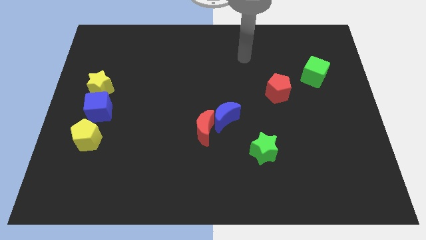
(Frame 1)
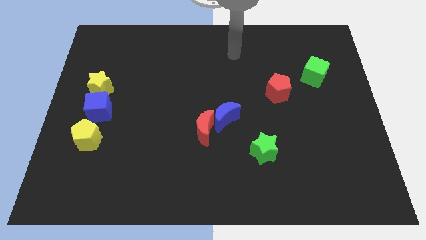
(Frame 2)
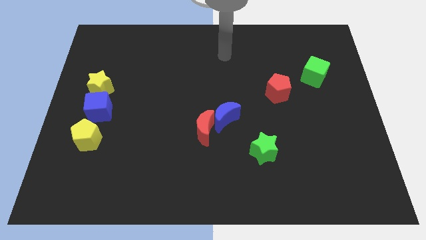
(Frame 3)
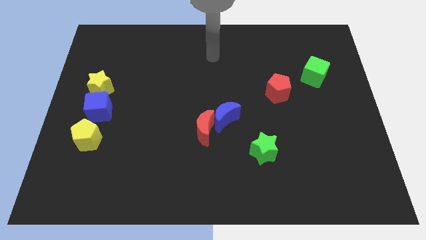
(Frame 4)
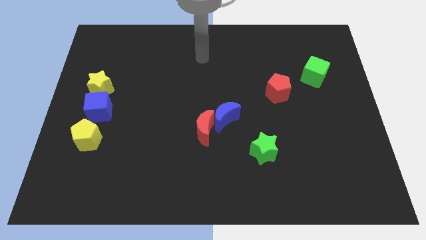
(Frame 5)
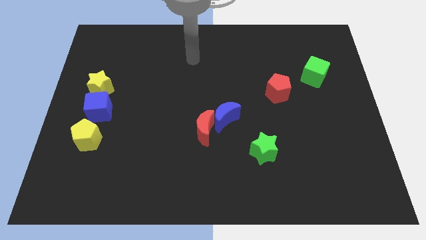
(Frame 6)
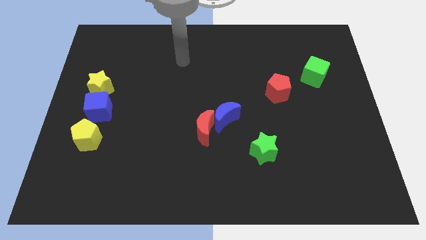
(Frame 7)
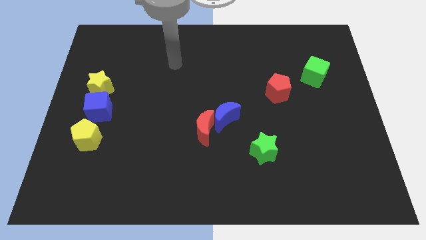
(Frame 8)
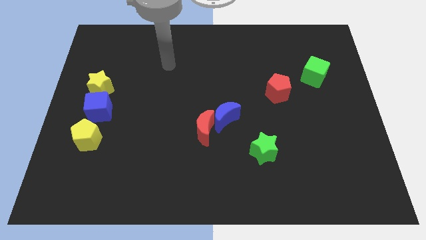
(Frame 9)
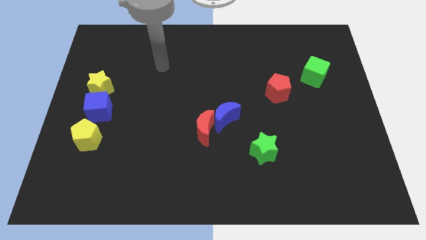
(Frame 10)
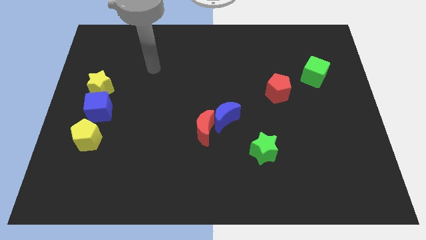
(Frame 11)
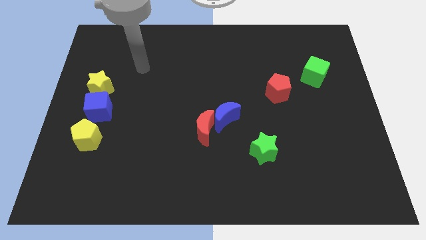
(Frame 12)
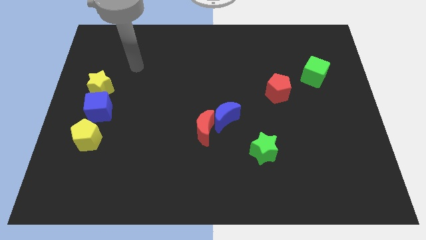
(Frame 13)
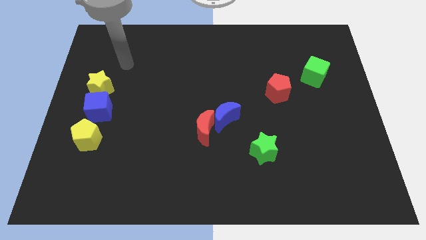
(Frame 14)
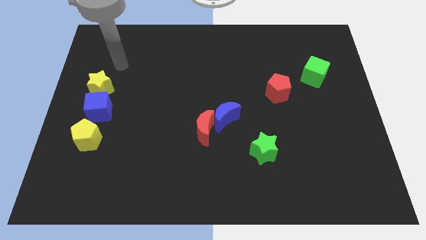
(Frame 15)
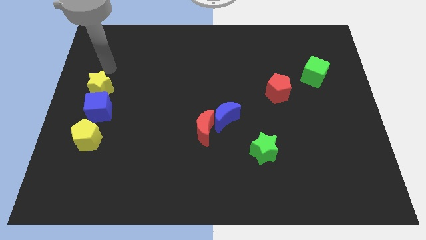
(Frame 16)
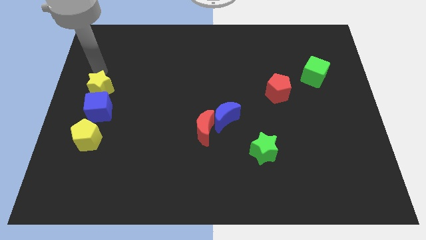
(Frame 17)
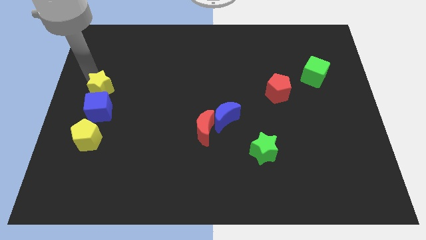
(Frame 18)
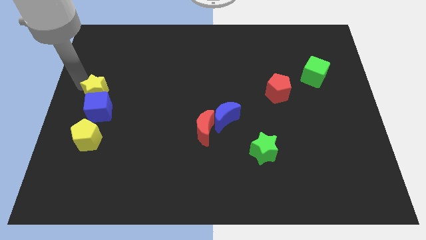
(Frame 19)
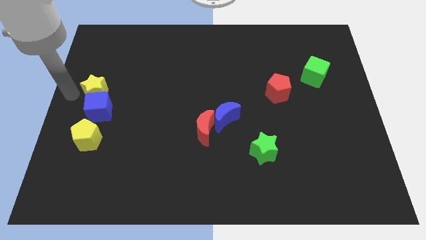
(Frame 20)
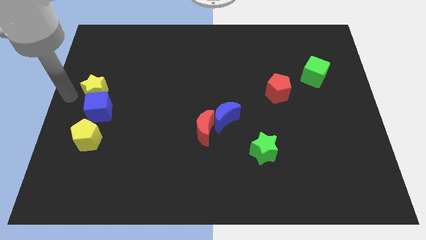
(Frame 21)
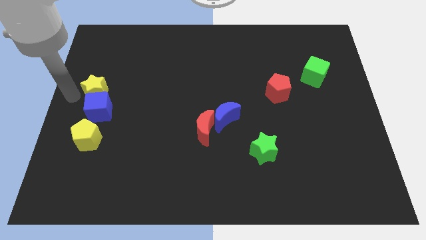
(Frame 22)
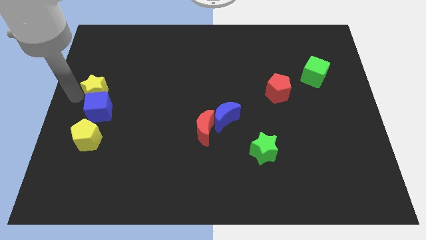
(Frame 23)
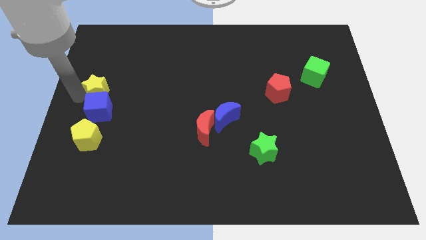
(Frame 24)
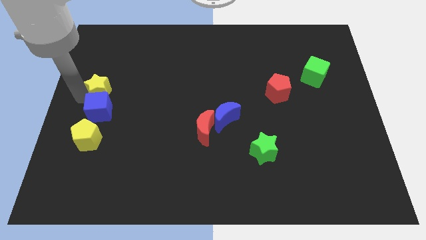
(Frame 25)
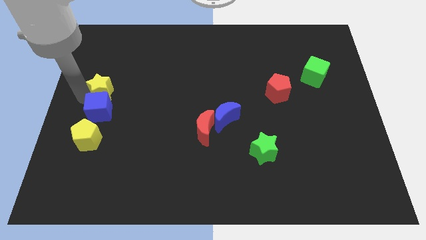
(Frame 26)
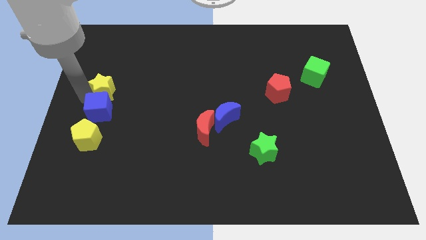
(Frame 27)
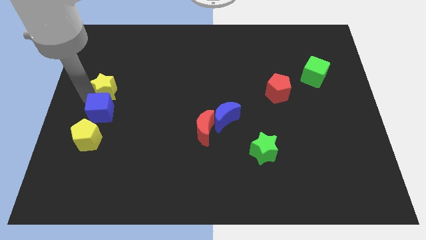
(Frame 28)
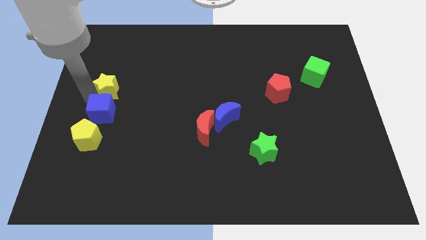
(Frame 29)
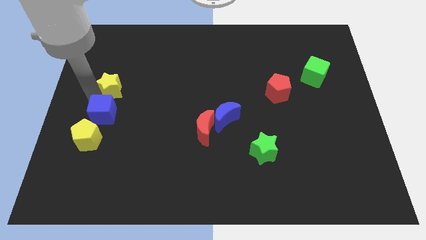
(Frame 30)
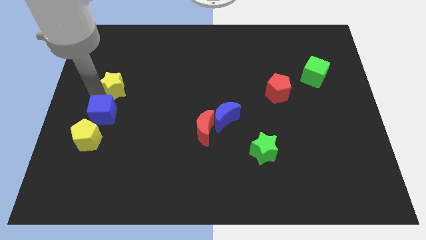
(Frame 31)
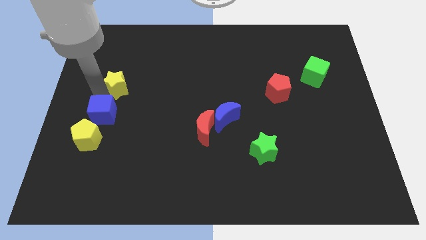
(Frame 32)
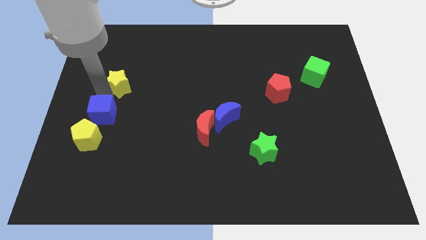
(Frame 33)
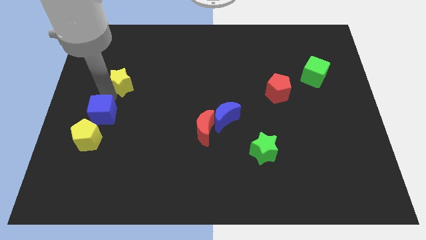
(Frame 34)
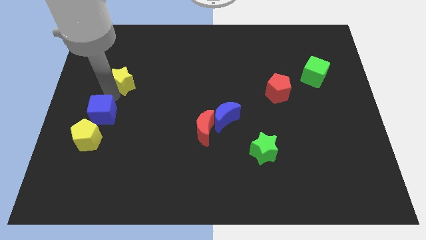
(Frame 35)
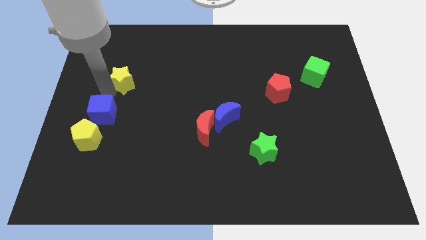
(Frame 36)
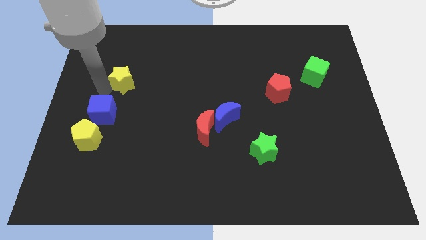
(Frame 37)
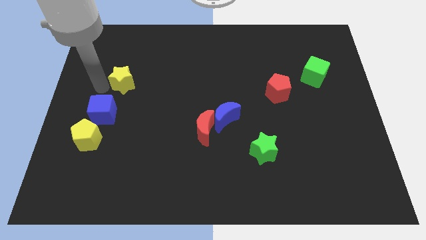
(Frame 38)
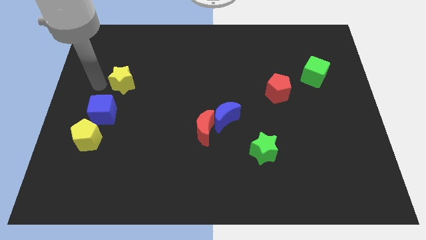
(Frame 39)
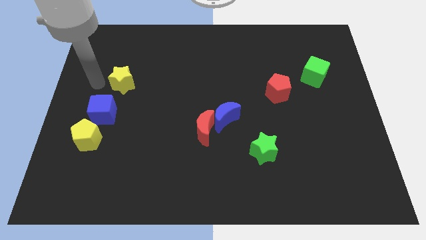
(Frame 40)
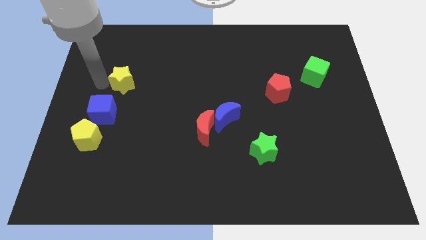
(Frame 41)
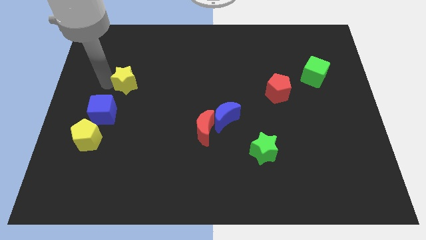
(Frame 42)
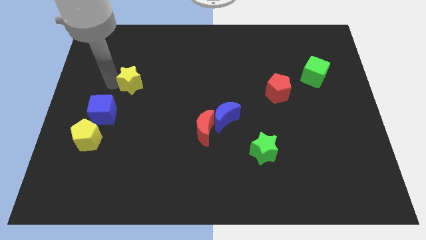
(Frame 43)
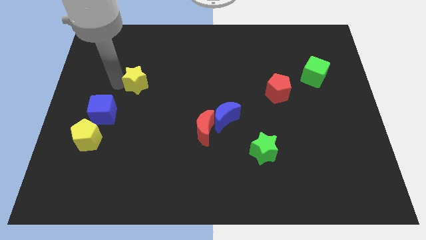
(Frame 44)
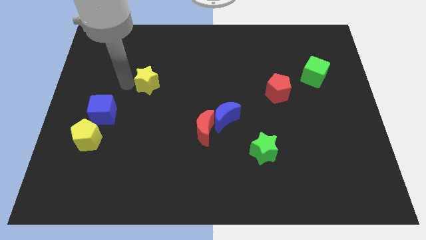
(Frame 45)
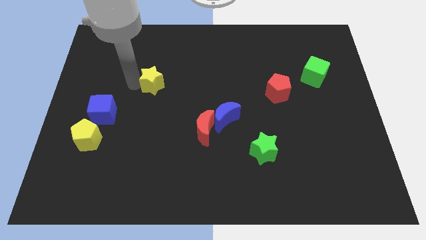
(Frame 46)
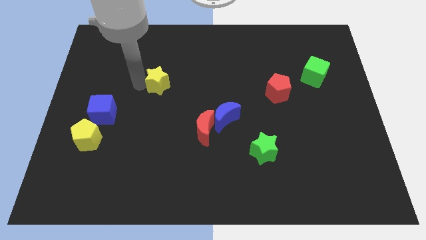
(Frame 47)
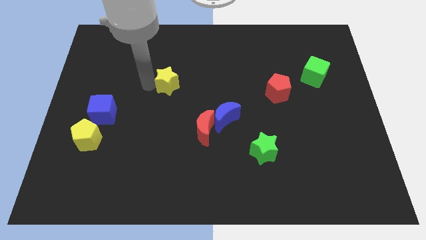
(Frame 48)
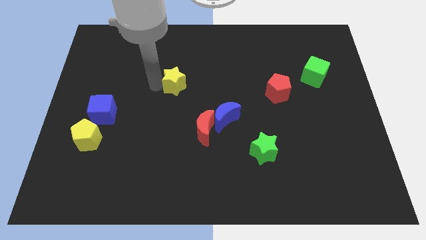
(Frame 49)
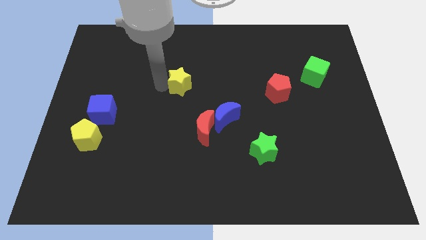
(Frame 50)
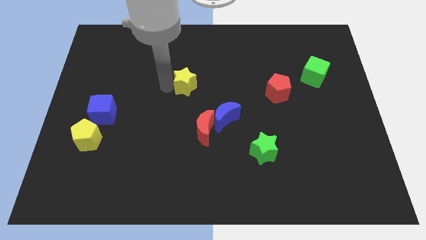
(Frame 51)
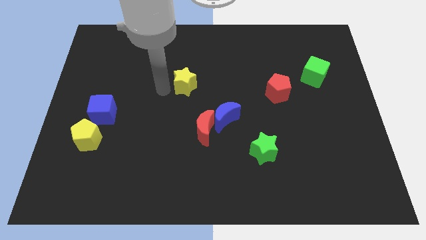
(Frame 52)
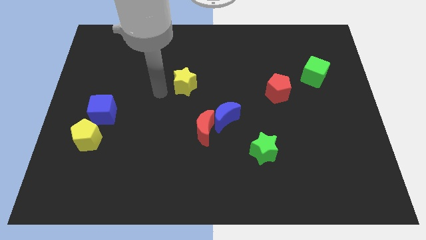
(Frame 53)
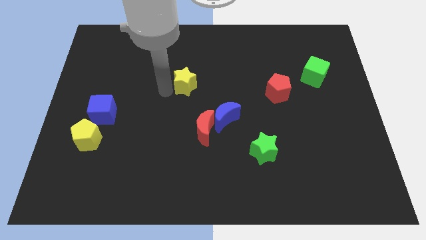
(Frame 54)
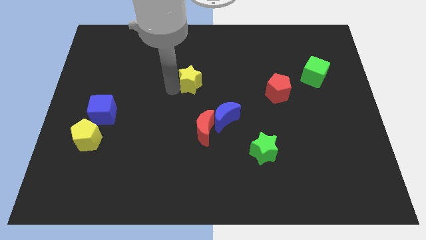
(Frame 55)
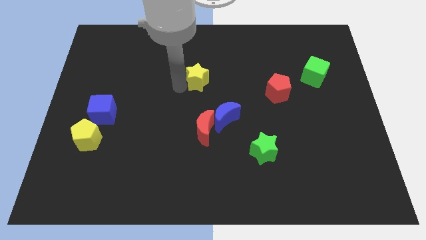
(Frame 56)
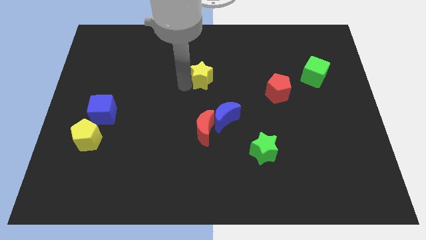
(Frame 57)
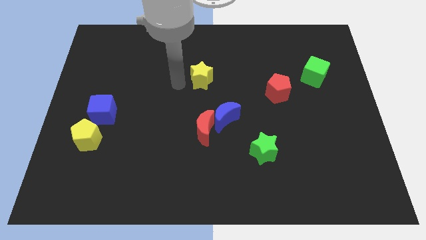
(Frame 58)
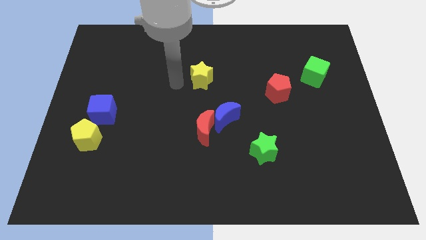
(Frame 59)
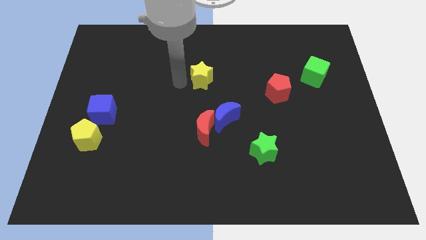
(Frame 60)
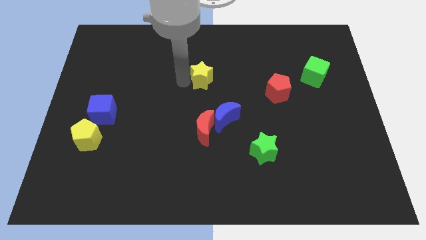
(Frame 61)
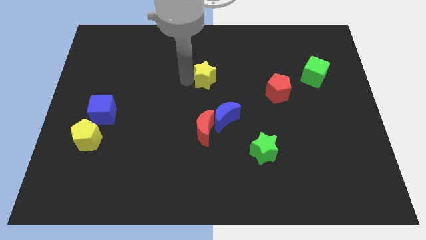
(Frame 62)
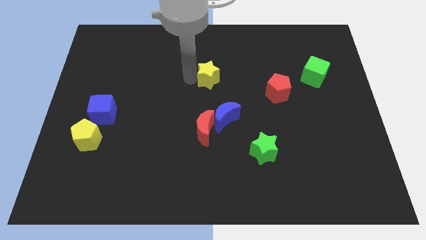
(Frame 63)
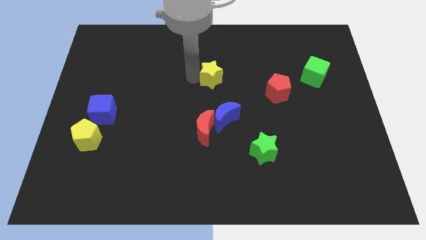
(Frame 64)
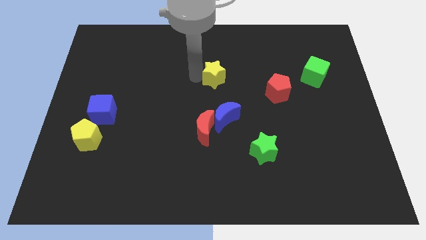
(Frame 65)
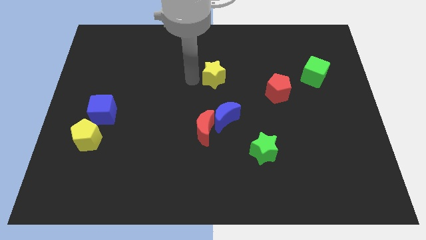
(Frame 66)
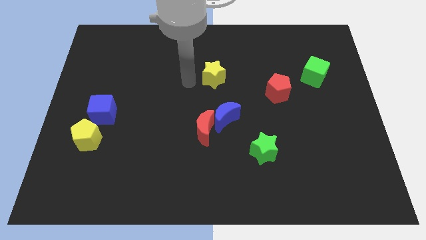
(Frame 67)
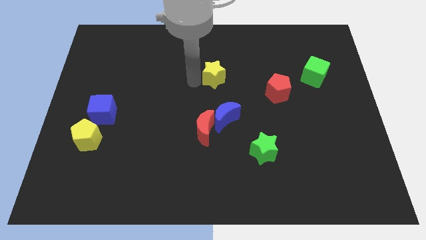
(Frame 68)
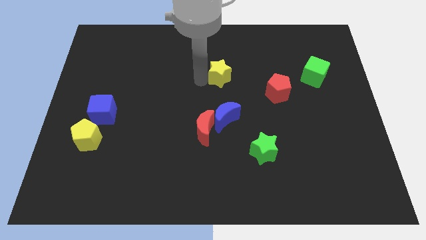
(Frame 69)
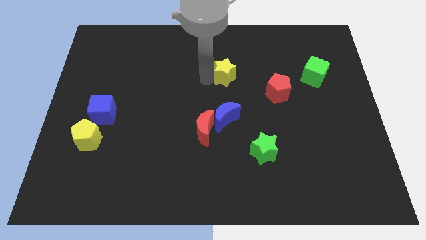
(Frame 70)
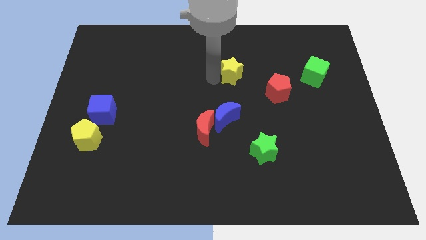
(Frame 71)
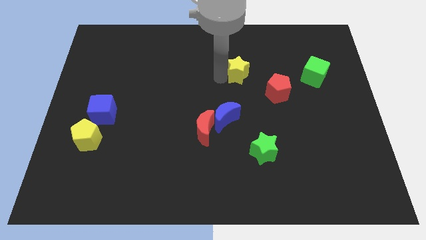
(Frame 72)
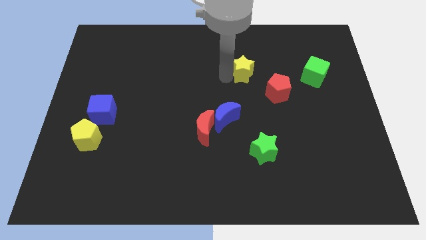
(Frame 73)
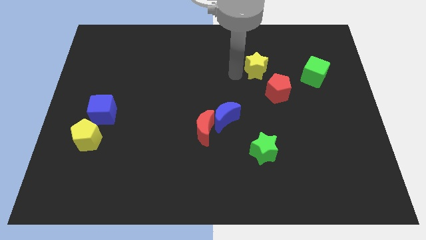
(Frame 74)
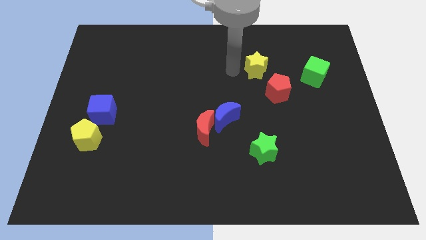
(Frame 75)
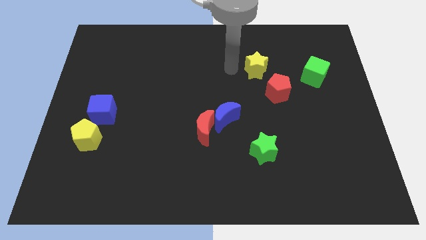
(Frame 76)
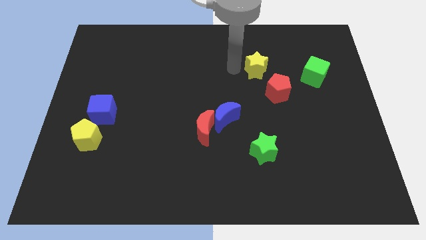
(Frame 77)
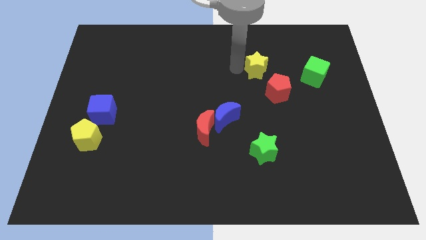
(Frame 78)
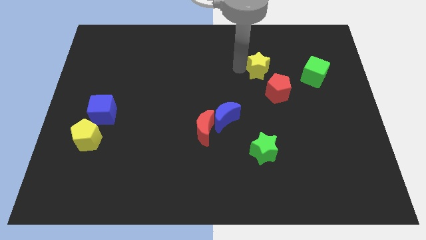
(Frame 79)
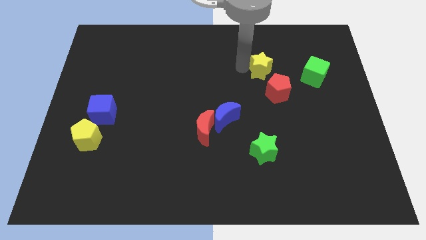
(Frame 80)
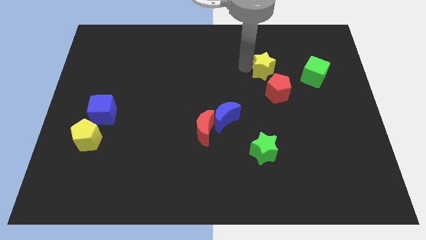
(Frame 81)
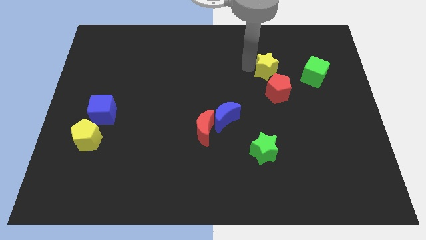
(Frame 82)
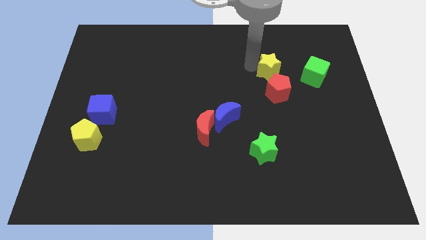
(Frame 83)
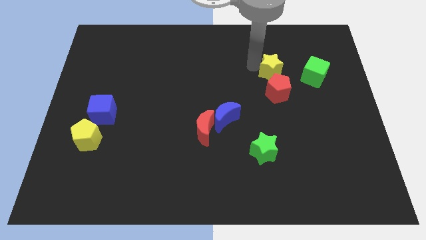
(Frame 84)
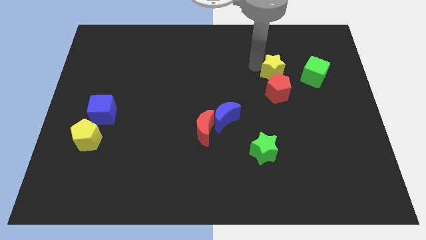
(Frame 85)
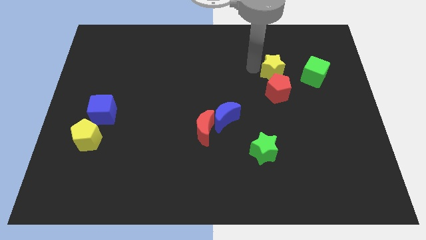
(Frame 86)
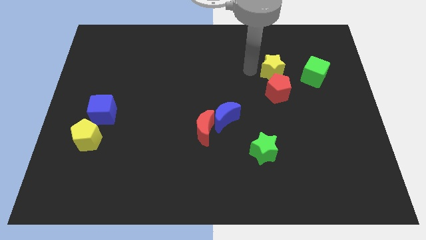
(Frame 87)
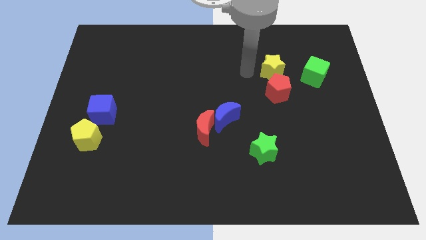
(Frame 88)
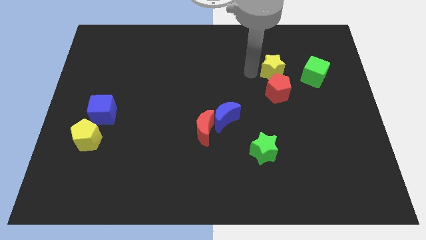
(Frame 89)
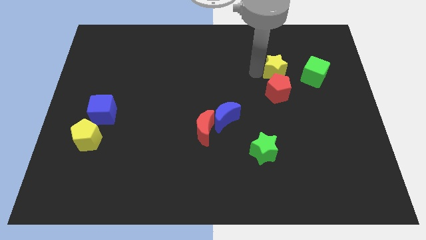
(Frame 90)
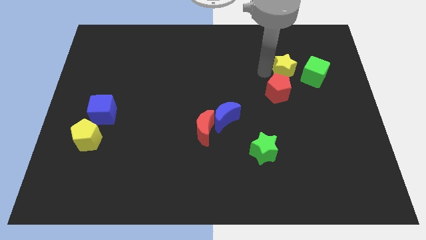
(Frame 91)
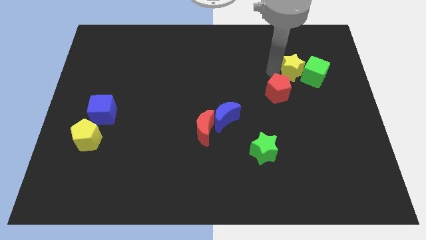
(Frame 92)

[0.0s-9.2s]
move the yellow star next to the green cube
